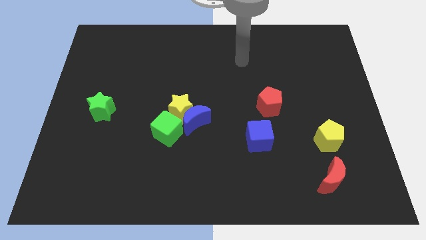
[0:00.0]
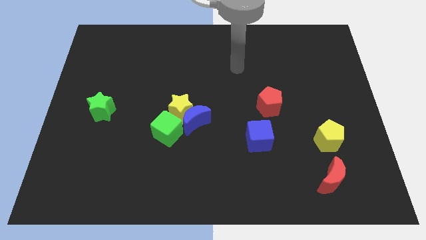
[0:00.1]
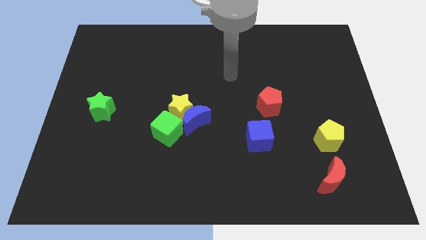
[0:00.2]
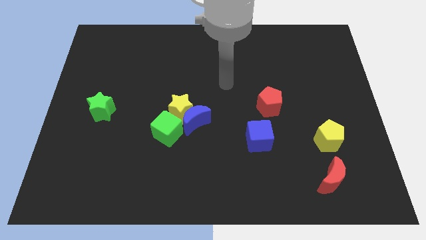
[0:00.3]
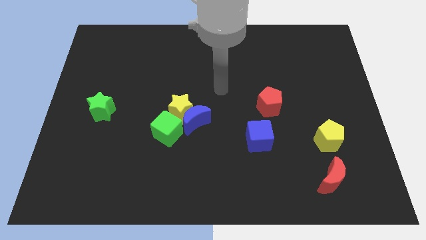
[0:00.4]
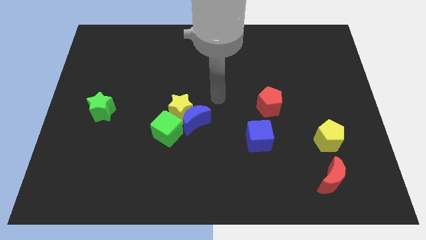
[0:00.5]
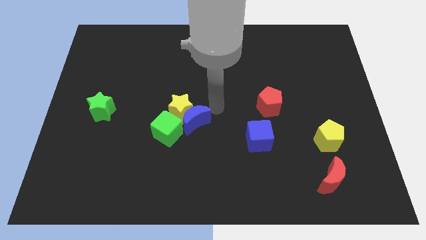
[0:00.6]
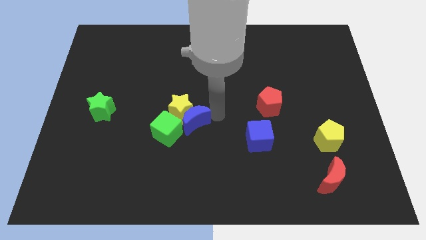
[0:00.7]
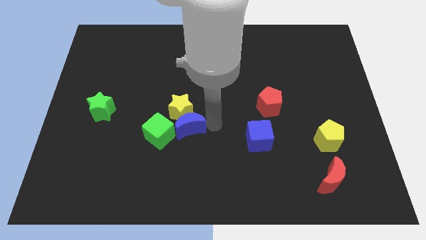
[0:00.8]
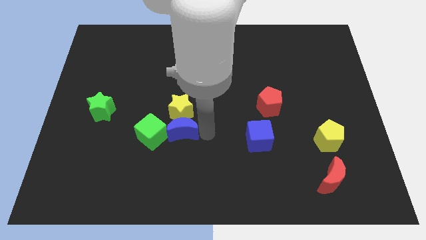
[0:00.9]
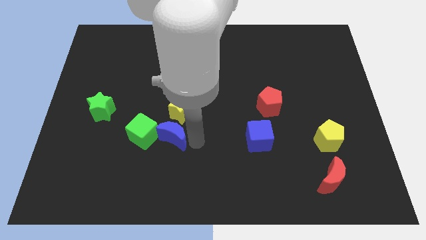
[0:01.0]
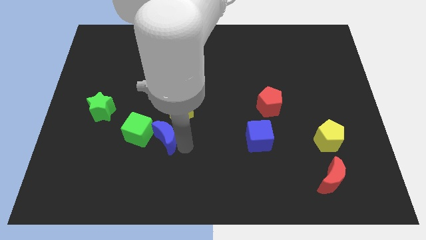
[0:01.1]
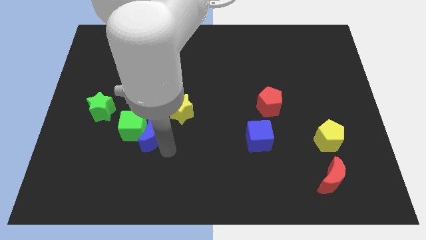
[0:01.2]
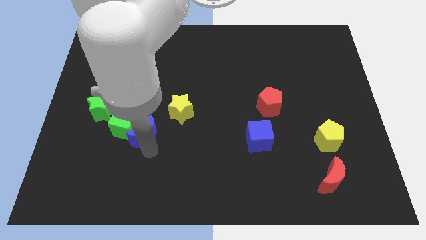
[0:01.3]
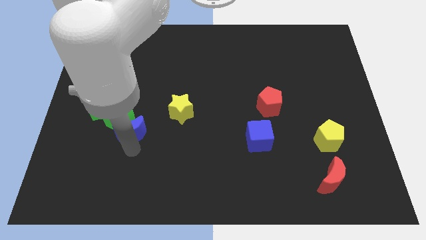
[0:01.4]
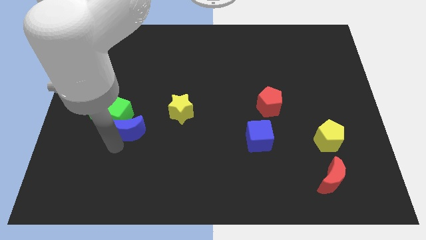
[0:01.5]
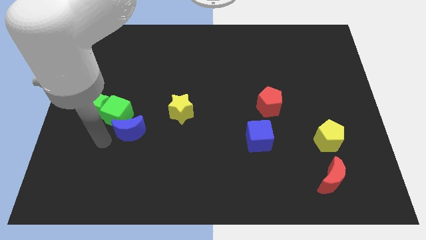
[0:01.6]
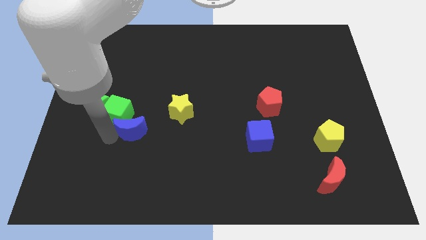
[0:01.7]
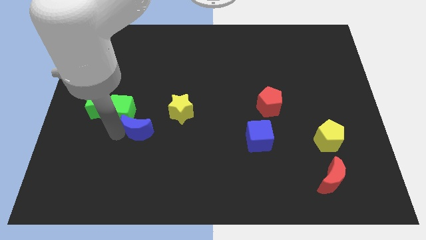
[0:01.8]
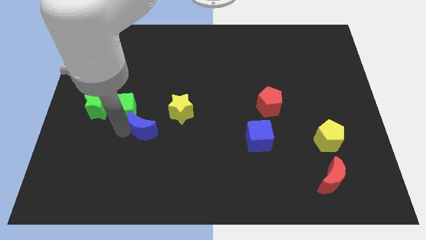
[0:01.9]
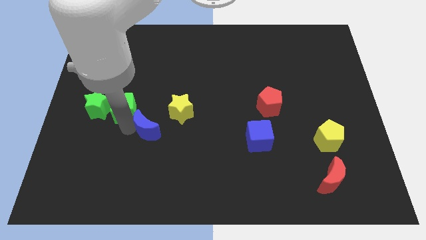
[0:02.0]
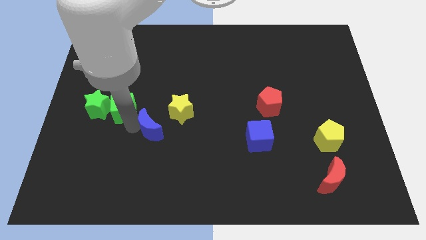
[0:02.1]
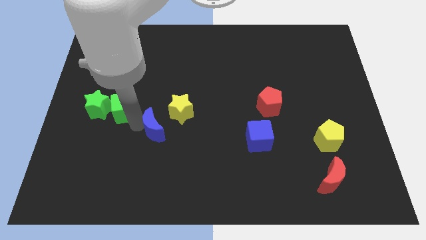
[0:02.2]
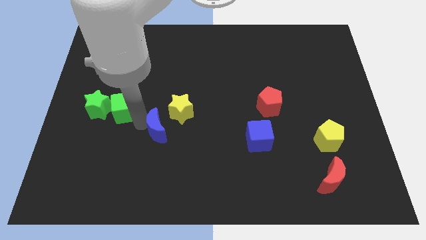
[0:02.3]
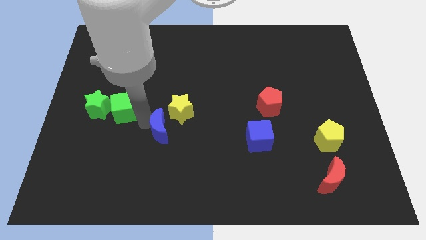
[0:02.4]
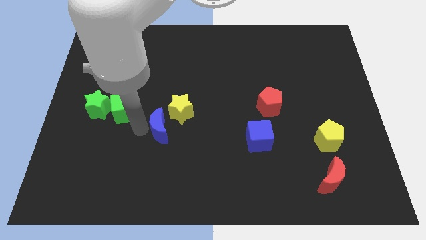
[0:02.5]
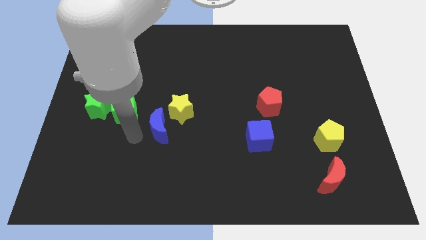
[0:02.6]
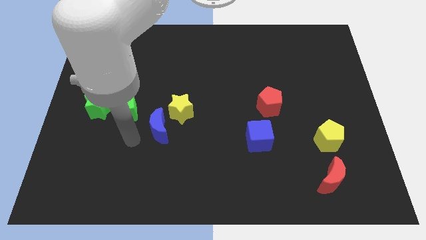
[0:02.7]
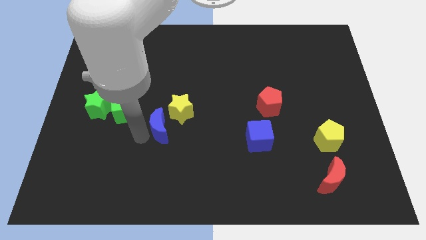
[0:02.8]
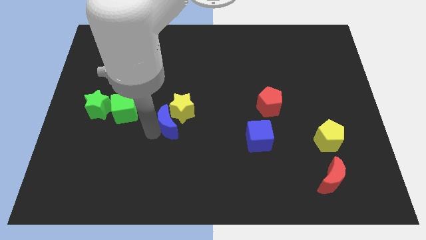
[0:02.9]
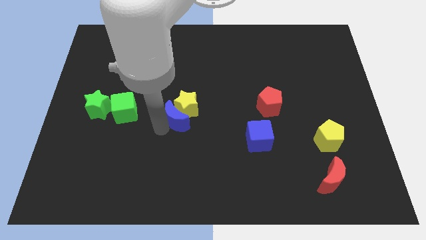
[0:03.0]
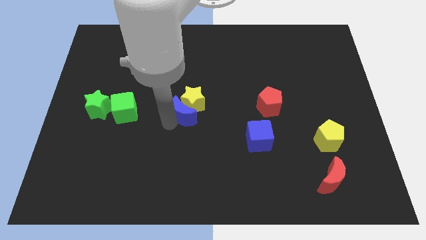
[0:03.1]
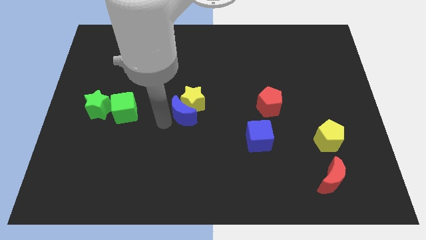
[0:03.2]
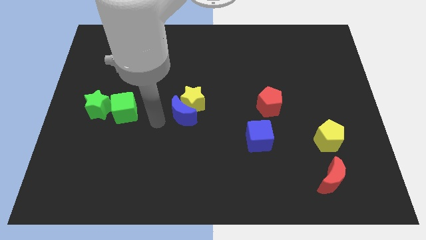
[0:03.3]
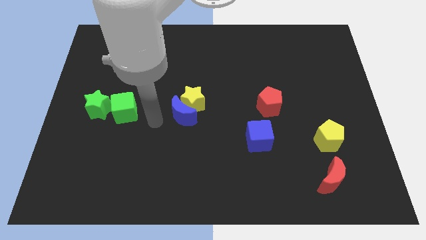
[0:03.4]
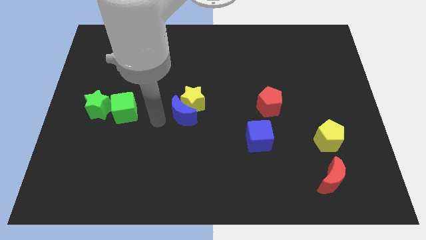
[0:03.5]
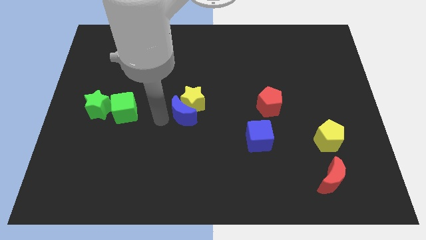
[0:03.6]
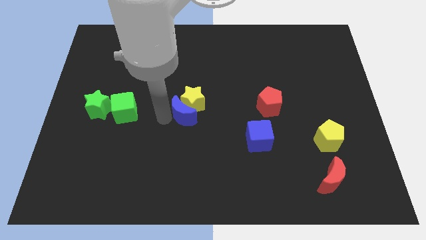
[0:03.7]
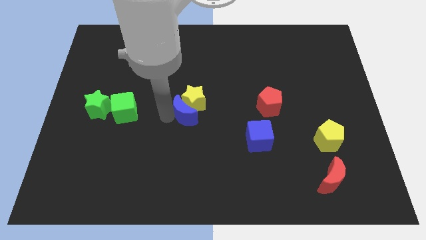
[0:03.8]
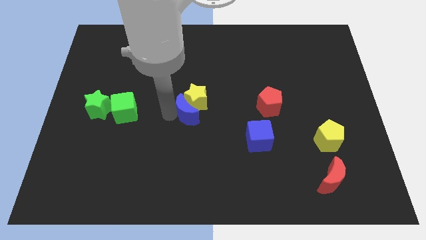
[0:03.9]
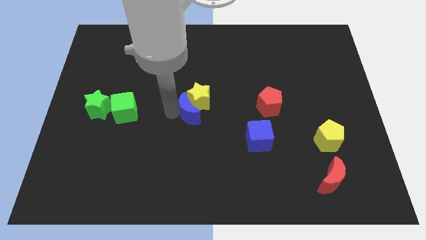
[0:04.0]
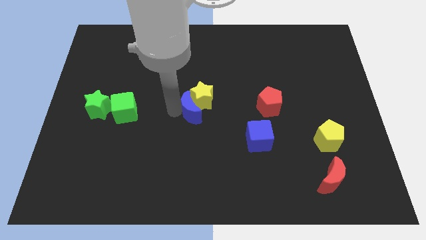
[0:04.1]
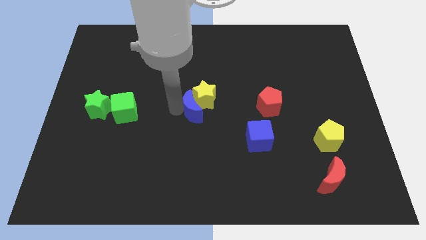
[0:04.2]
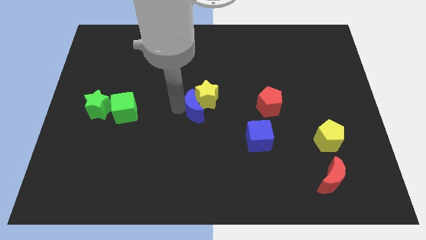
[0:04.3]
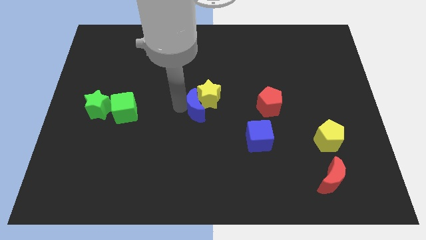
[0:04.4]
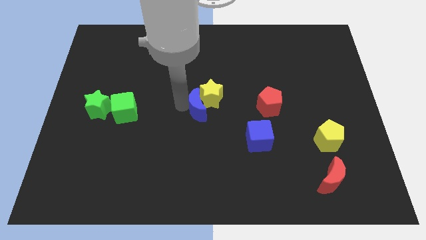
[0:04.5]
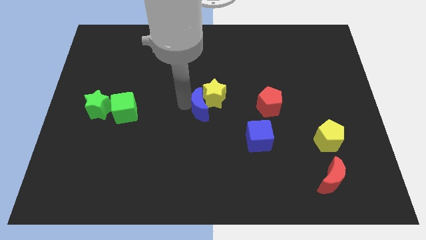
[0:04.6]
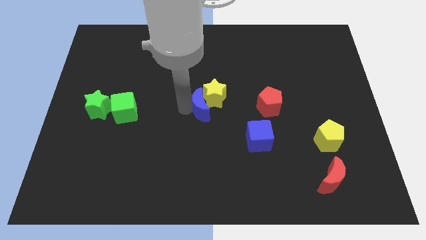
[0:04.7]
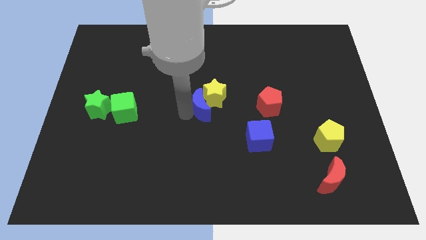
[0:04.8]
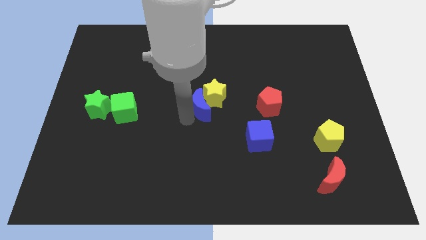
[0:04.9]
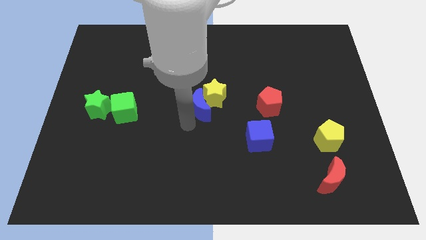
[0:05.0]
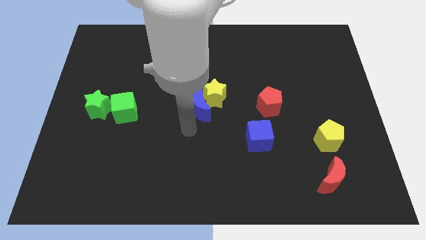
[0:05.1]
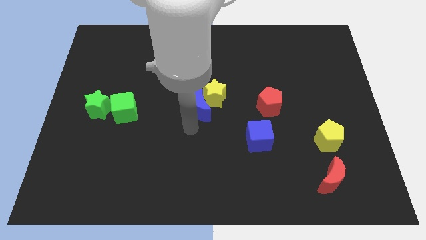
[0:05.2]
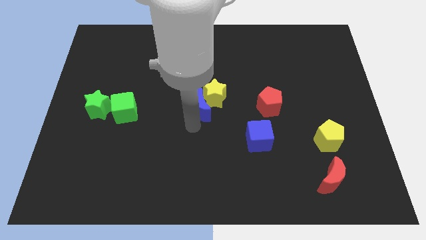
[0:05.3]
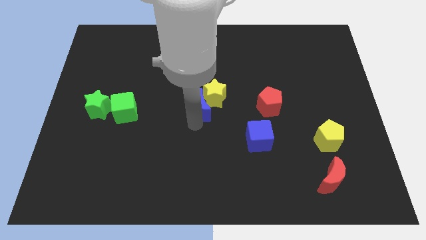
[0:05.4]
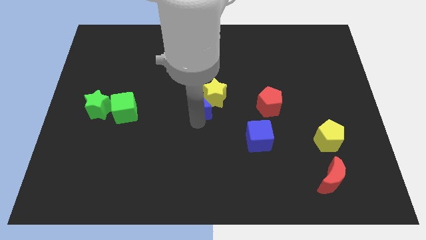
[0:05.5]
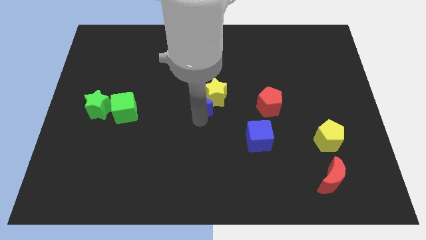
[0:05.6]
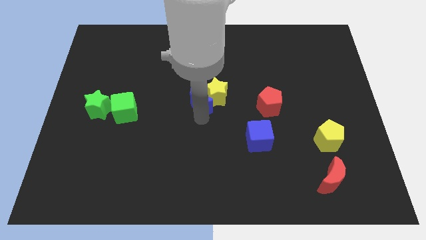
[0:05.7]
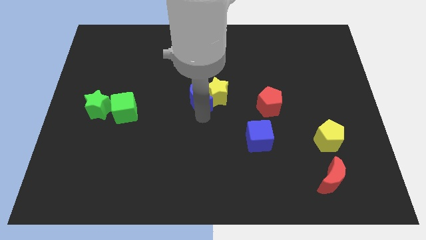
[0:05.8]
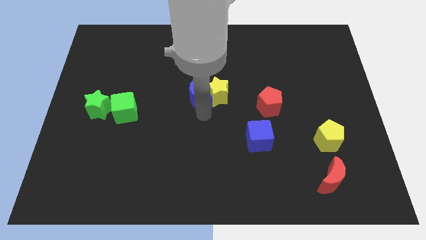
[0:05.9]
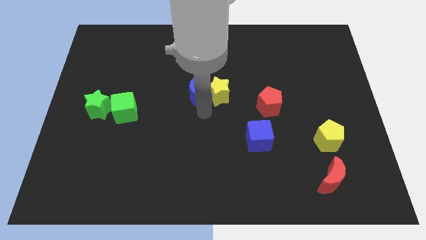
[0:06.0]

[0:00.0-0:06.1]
slightly push the blue moon up

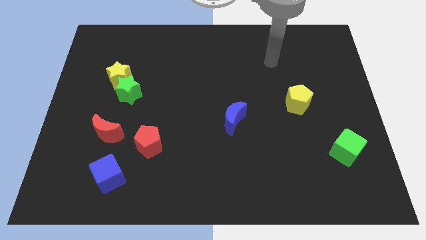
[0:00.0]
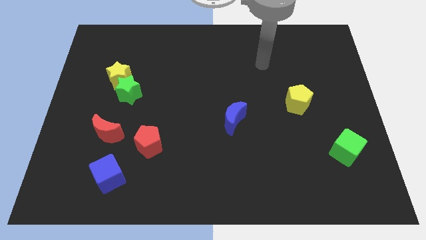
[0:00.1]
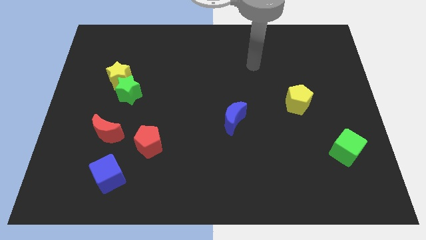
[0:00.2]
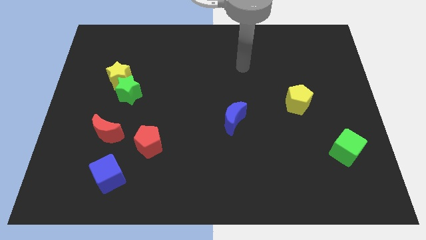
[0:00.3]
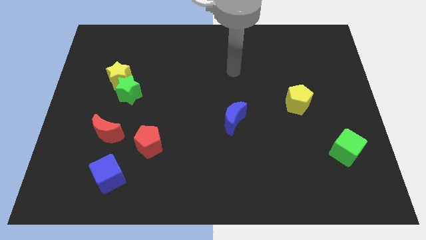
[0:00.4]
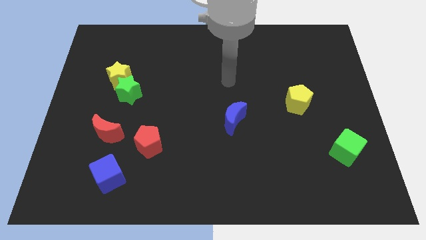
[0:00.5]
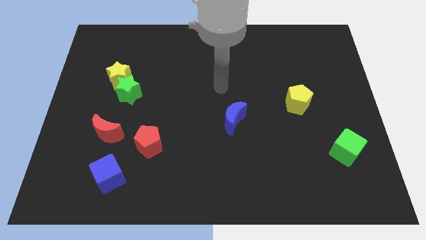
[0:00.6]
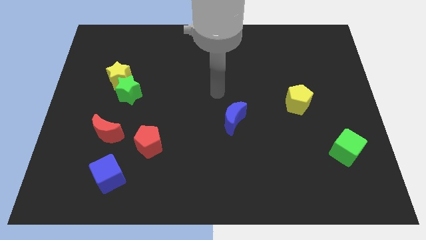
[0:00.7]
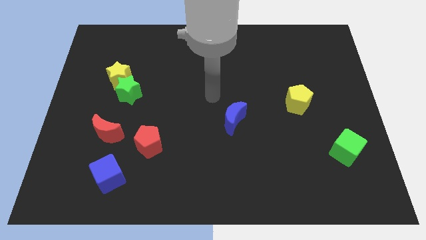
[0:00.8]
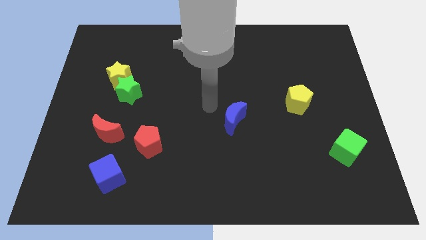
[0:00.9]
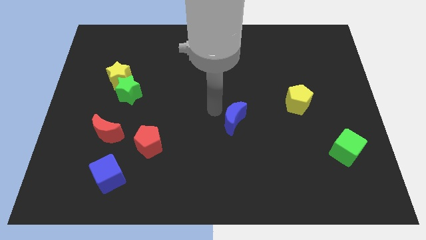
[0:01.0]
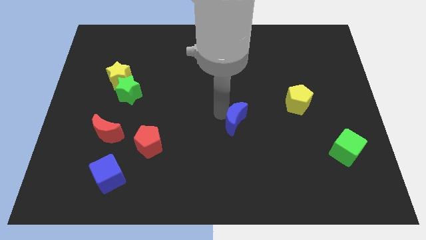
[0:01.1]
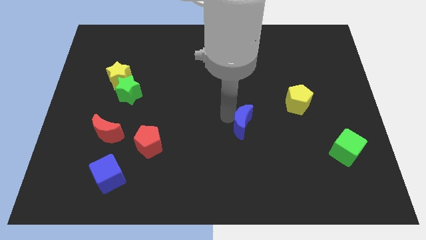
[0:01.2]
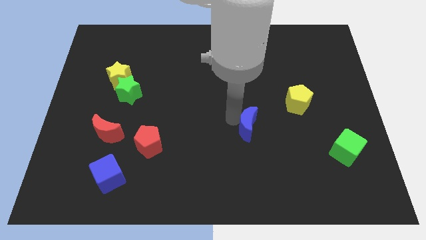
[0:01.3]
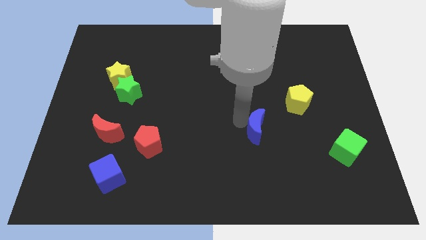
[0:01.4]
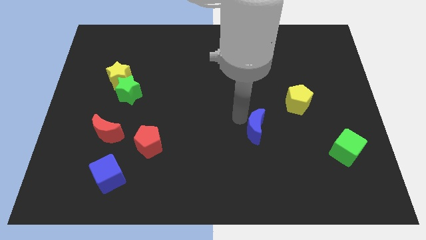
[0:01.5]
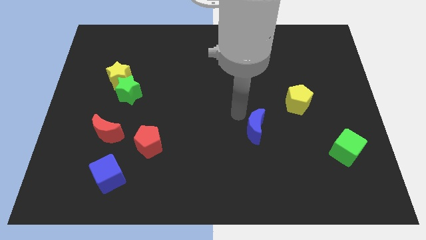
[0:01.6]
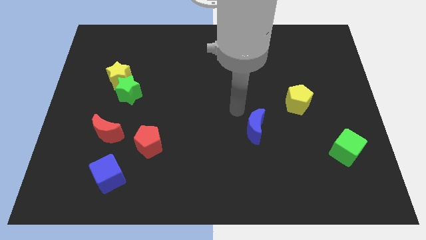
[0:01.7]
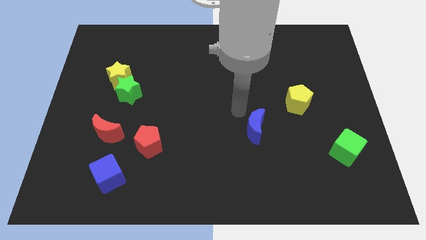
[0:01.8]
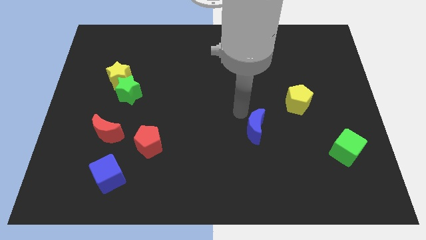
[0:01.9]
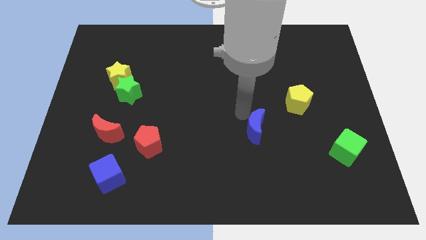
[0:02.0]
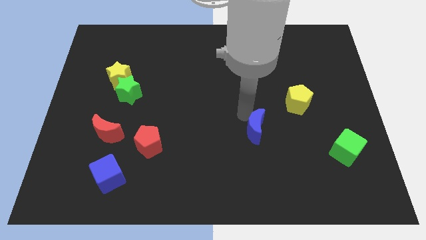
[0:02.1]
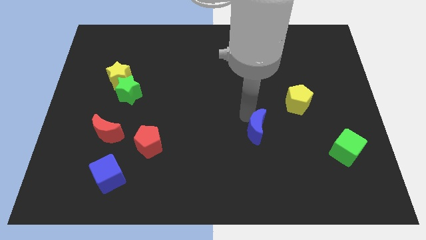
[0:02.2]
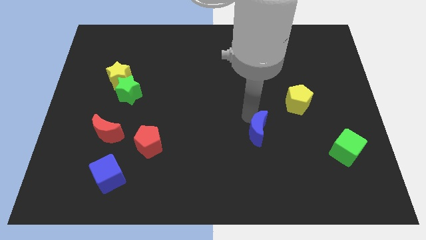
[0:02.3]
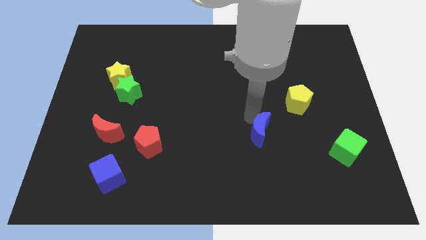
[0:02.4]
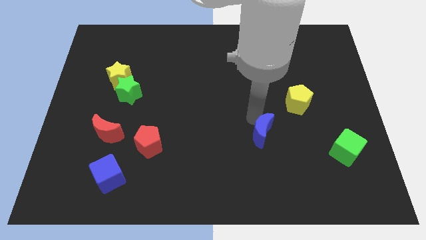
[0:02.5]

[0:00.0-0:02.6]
slide the blue moon downwards and to the right diagonally slightly
